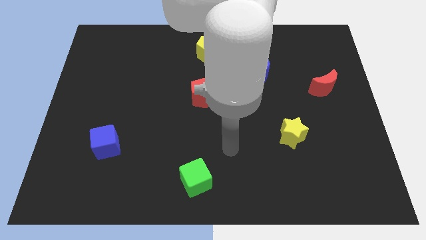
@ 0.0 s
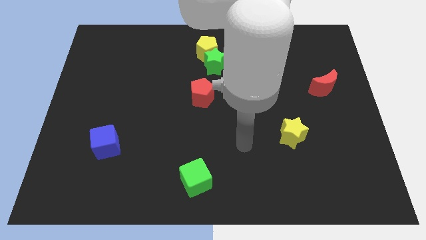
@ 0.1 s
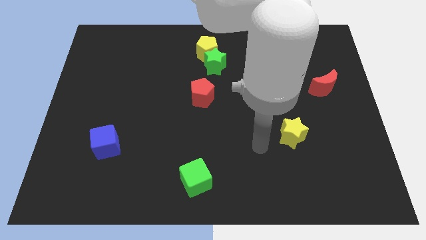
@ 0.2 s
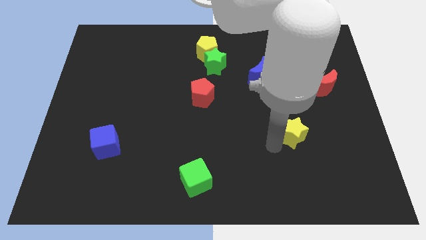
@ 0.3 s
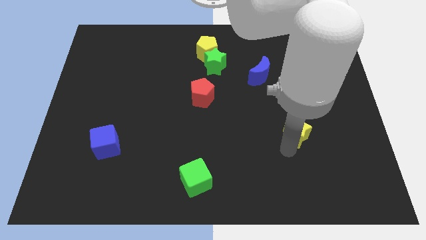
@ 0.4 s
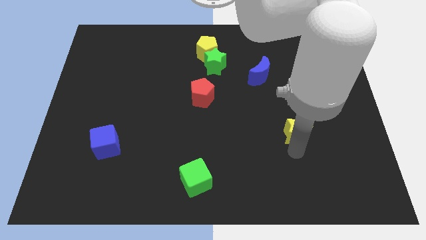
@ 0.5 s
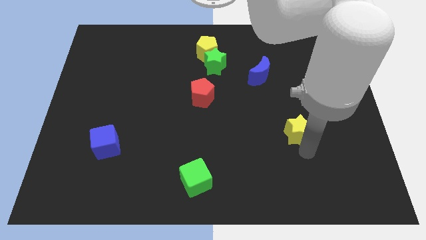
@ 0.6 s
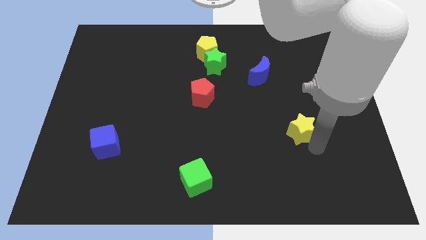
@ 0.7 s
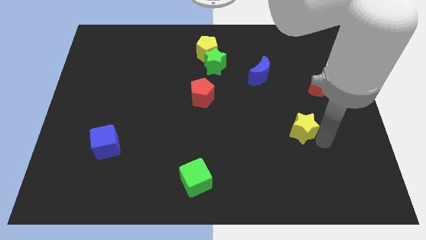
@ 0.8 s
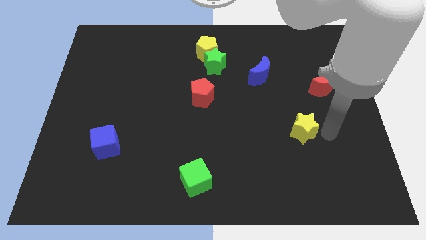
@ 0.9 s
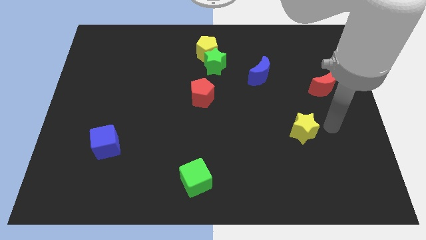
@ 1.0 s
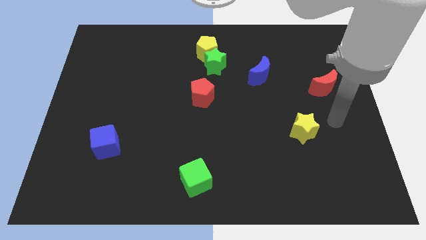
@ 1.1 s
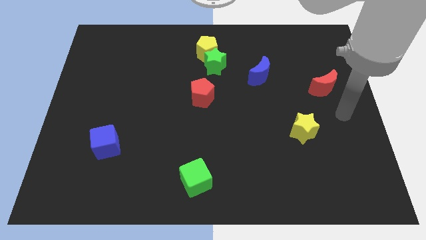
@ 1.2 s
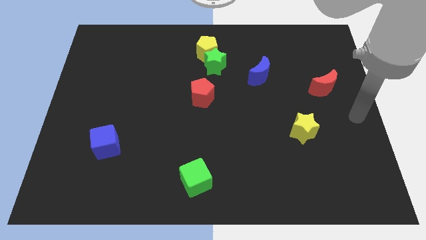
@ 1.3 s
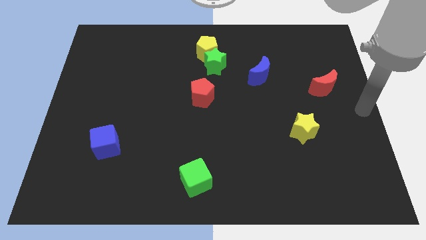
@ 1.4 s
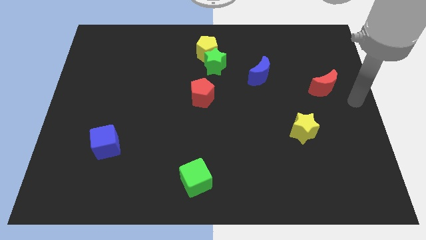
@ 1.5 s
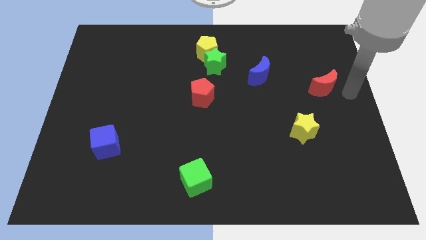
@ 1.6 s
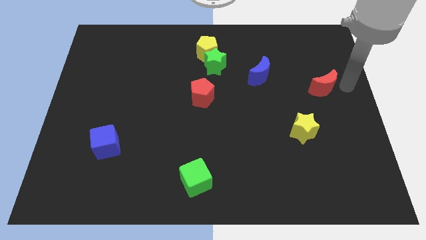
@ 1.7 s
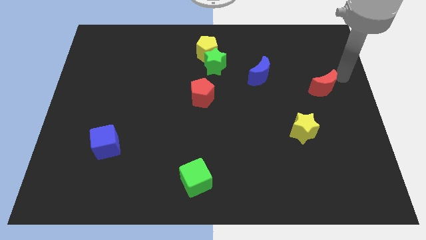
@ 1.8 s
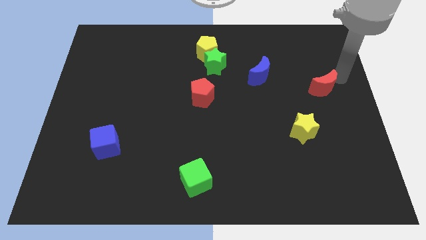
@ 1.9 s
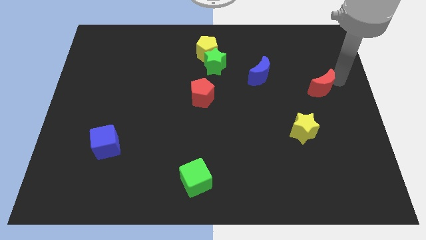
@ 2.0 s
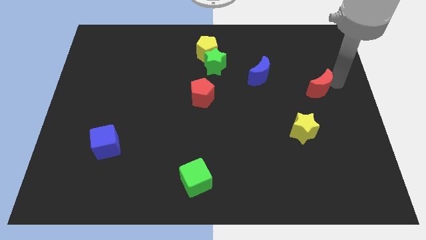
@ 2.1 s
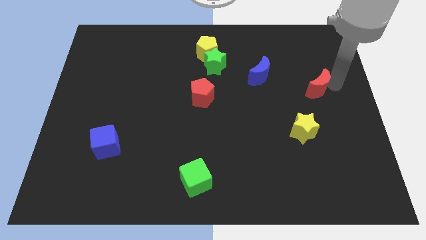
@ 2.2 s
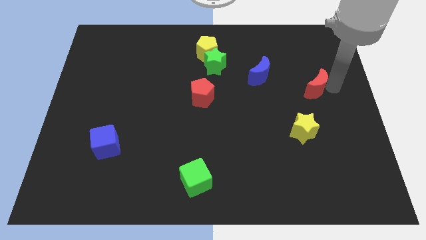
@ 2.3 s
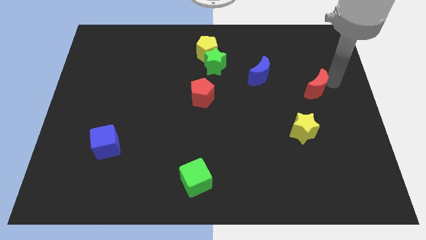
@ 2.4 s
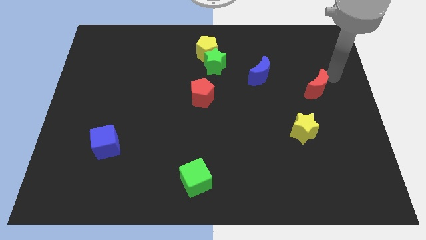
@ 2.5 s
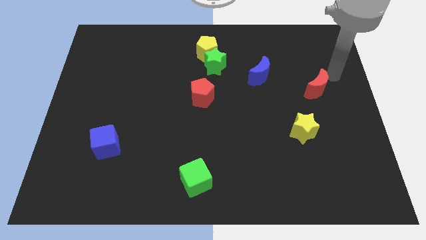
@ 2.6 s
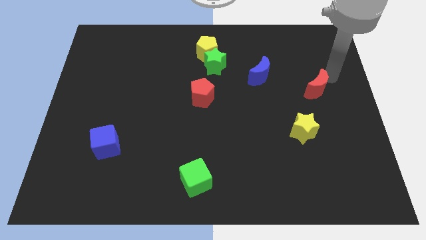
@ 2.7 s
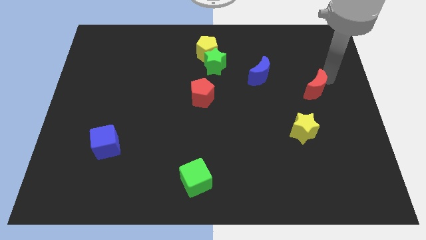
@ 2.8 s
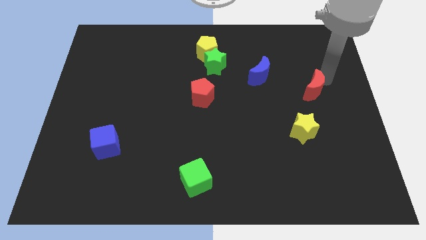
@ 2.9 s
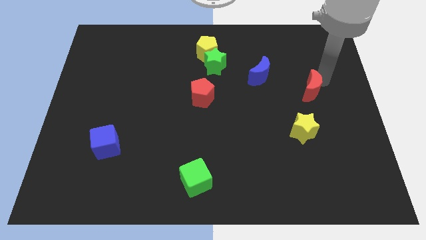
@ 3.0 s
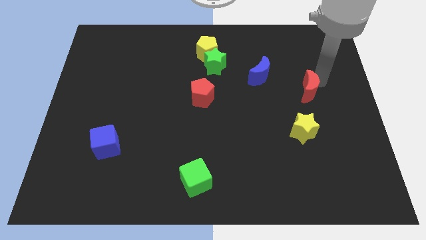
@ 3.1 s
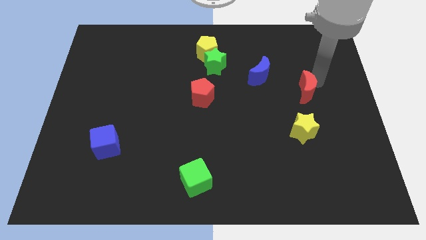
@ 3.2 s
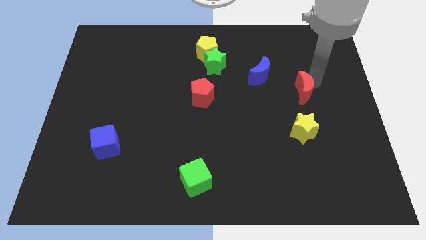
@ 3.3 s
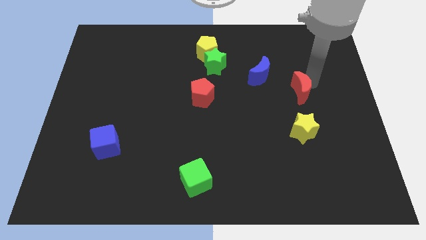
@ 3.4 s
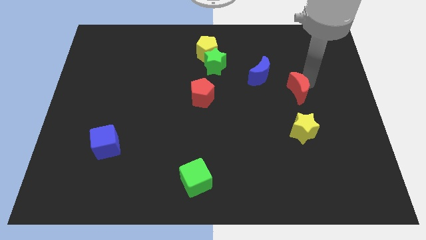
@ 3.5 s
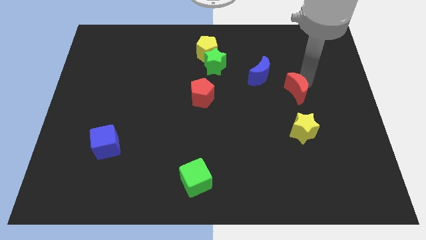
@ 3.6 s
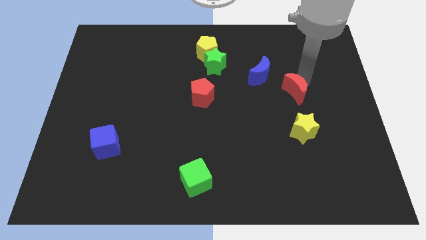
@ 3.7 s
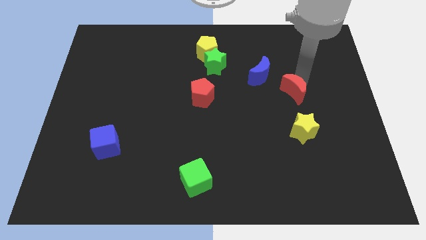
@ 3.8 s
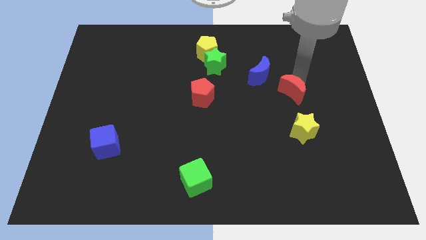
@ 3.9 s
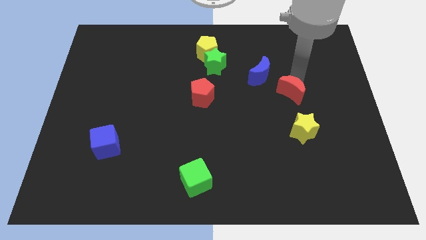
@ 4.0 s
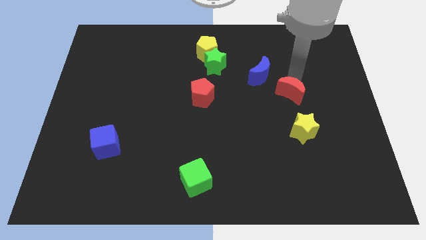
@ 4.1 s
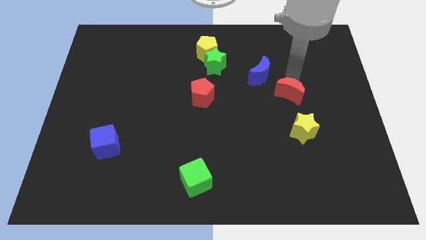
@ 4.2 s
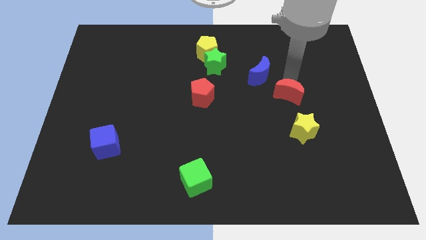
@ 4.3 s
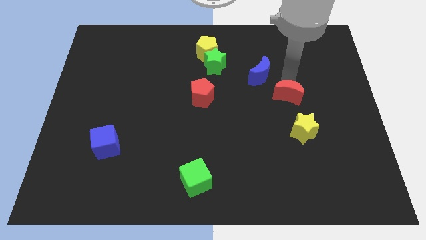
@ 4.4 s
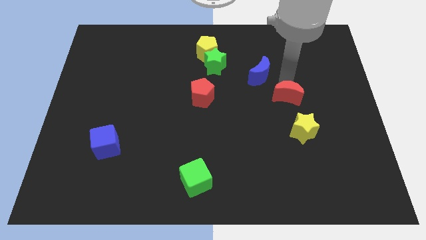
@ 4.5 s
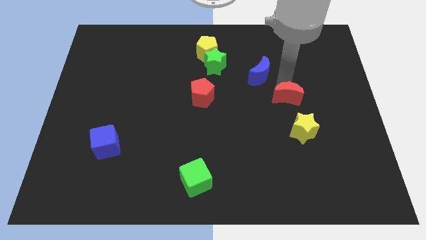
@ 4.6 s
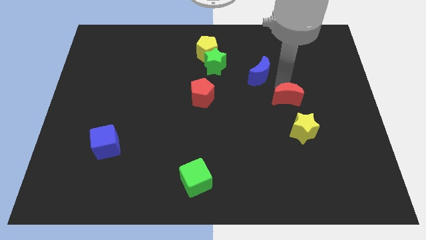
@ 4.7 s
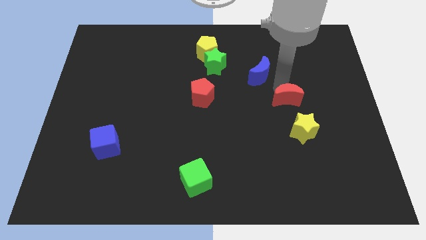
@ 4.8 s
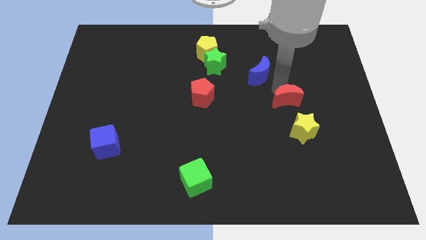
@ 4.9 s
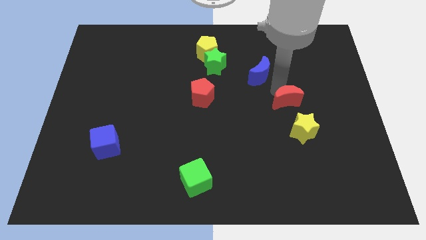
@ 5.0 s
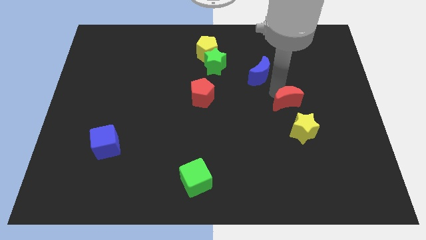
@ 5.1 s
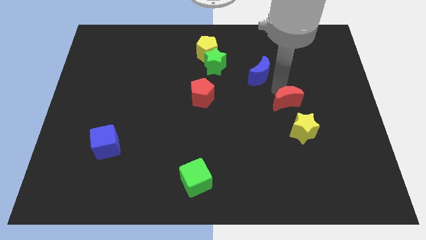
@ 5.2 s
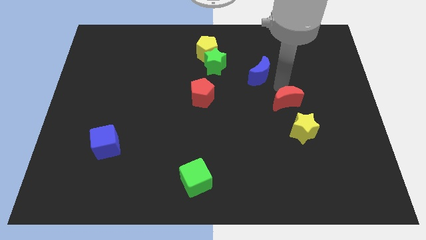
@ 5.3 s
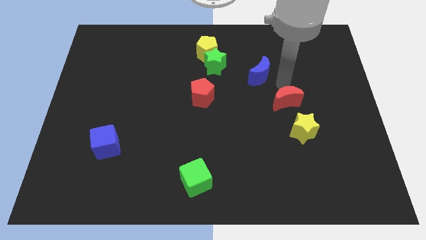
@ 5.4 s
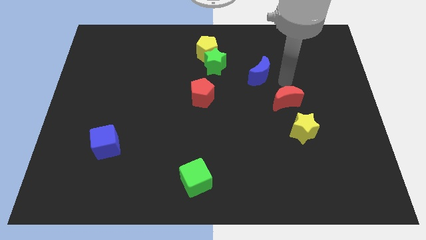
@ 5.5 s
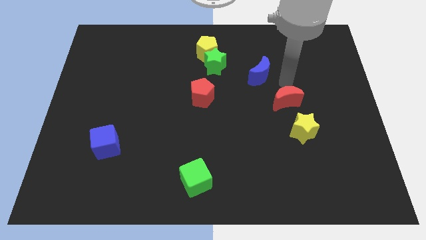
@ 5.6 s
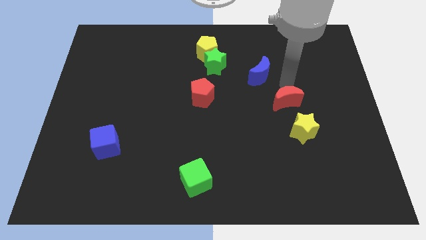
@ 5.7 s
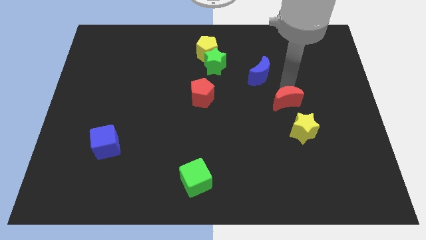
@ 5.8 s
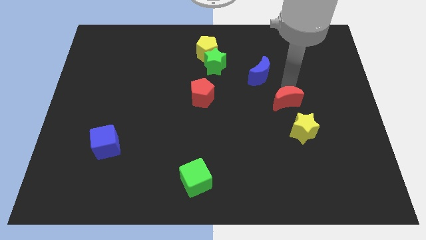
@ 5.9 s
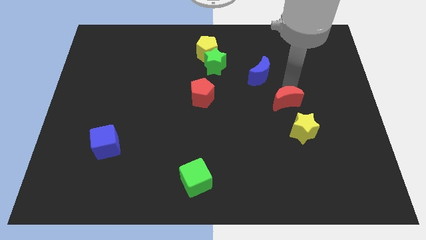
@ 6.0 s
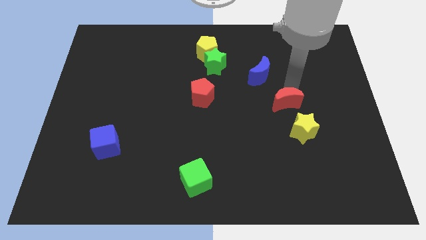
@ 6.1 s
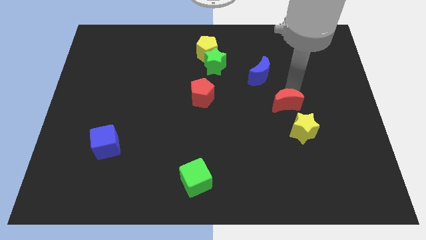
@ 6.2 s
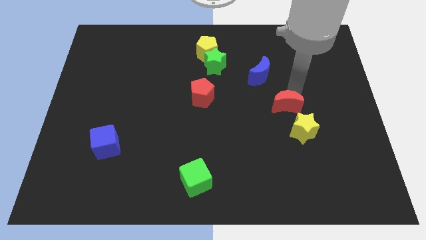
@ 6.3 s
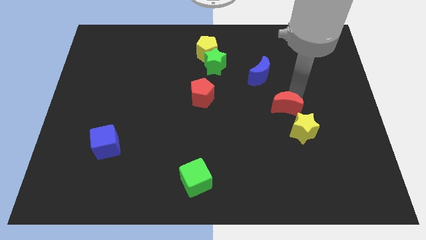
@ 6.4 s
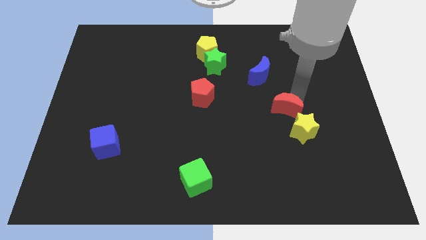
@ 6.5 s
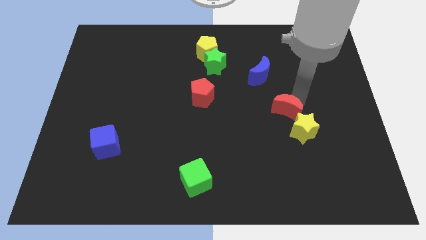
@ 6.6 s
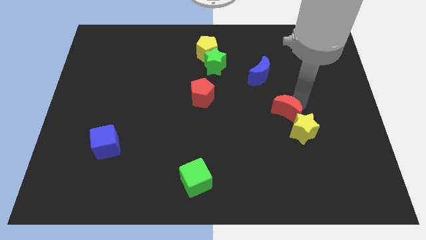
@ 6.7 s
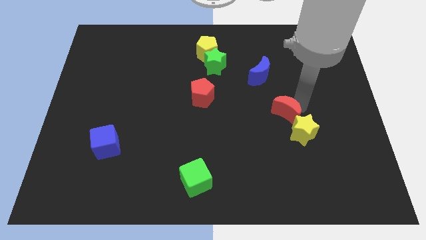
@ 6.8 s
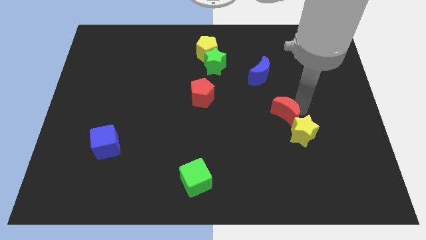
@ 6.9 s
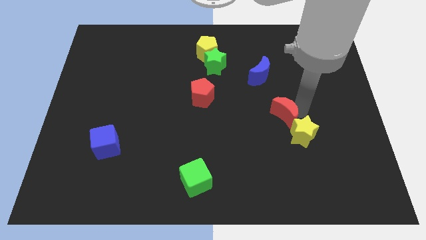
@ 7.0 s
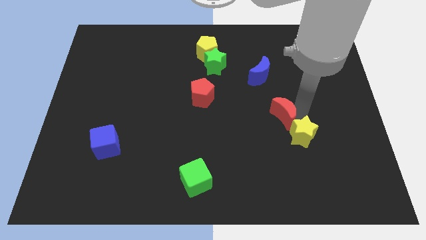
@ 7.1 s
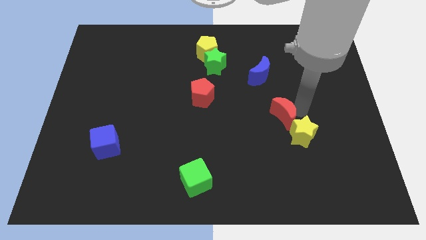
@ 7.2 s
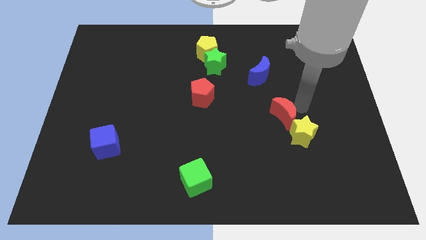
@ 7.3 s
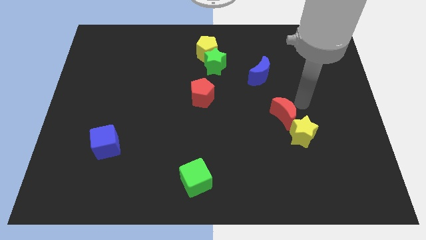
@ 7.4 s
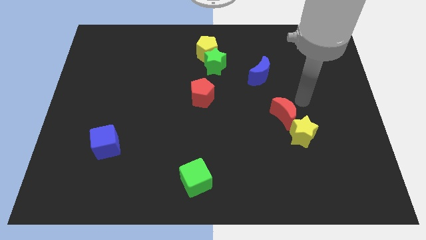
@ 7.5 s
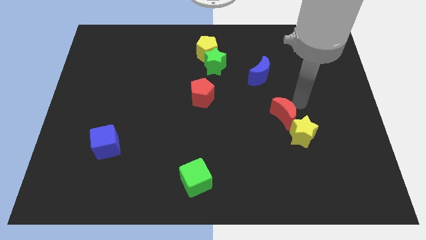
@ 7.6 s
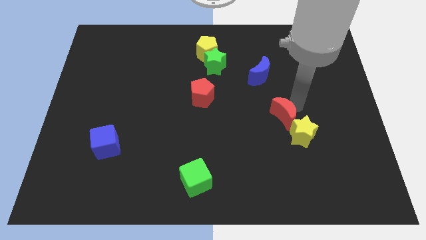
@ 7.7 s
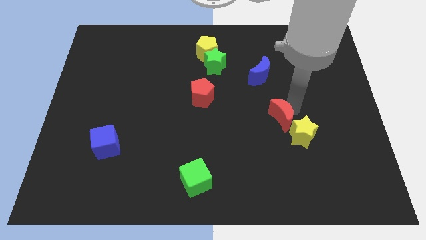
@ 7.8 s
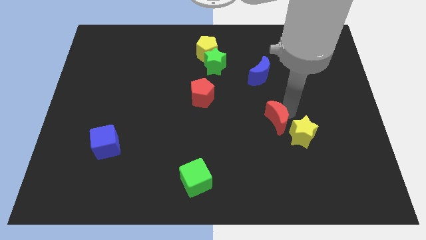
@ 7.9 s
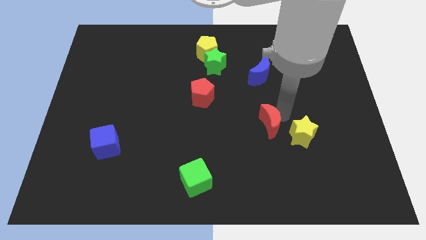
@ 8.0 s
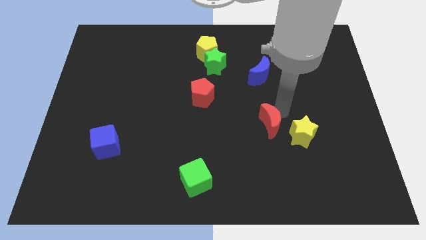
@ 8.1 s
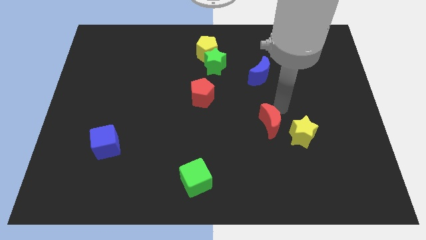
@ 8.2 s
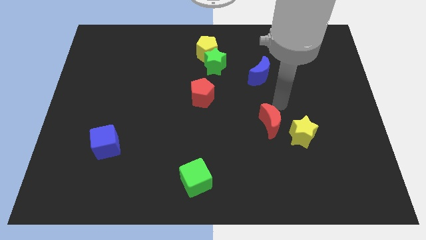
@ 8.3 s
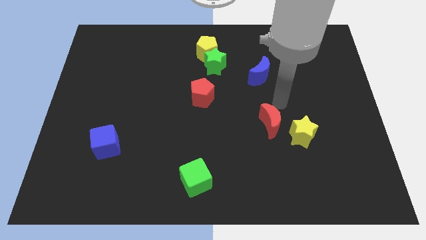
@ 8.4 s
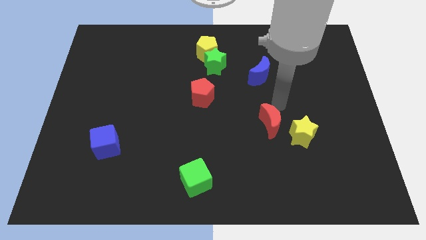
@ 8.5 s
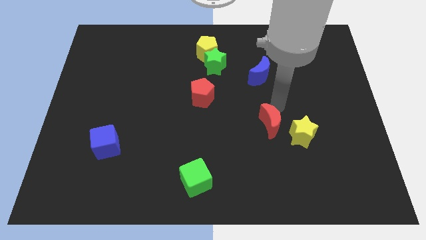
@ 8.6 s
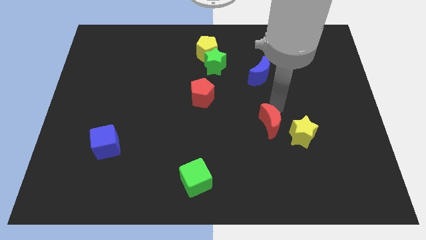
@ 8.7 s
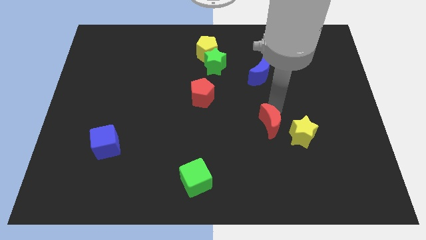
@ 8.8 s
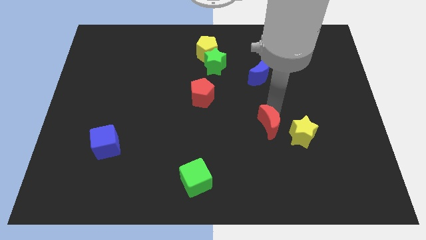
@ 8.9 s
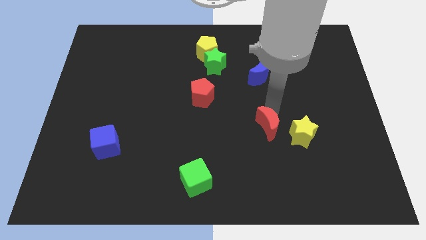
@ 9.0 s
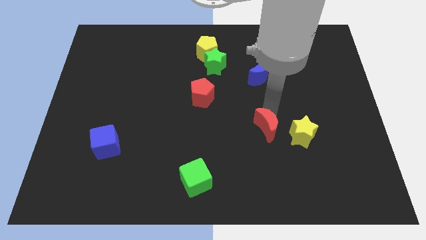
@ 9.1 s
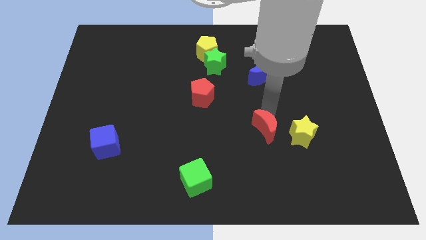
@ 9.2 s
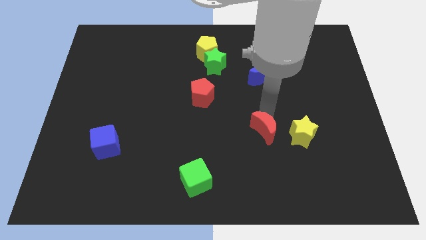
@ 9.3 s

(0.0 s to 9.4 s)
push the red moon diagonally downwards and left
